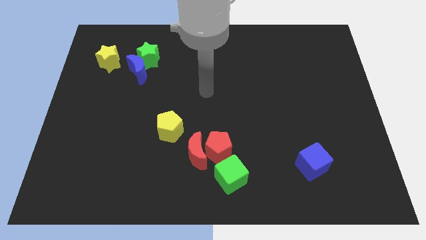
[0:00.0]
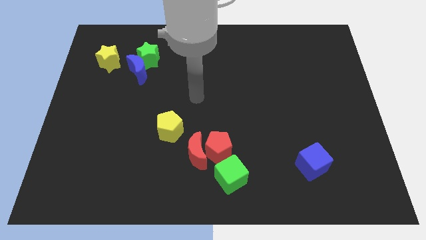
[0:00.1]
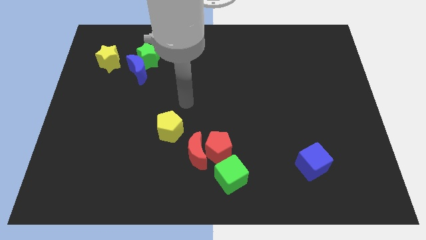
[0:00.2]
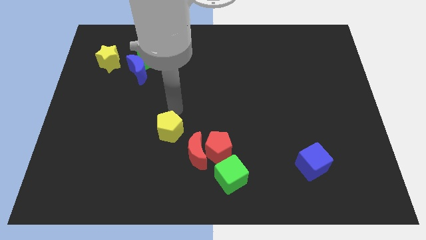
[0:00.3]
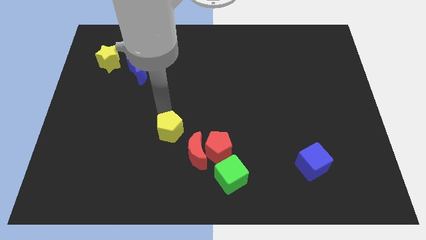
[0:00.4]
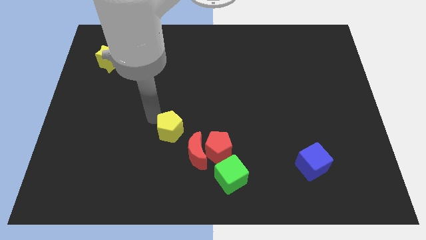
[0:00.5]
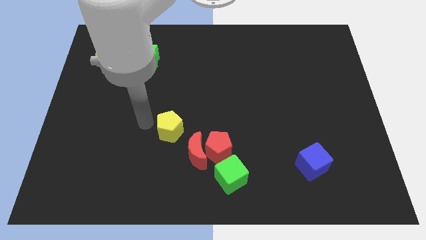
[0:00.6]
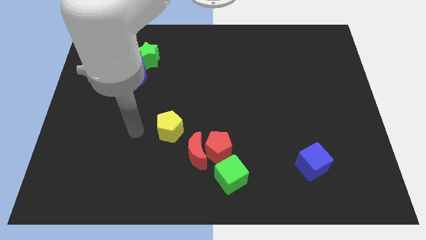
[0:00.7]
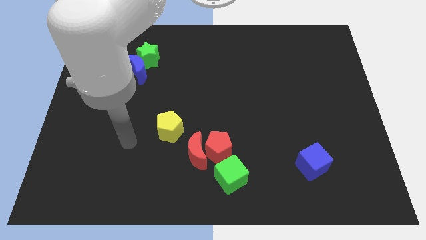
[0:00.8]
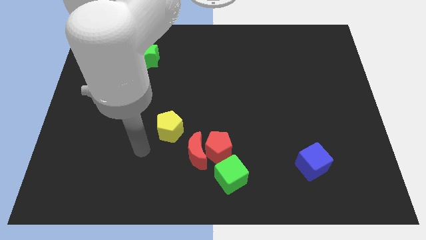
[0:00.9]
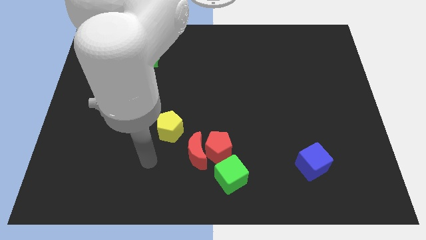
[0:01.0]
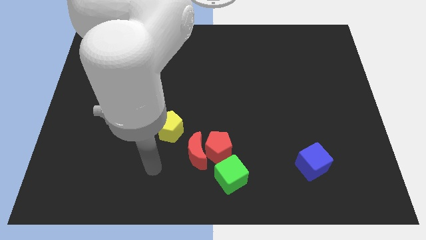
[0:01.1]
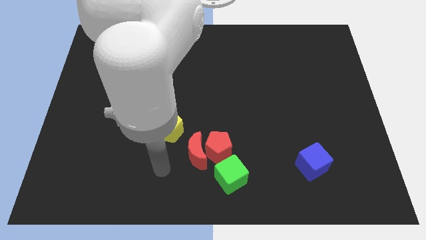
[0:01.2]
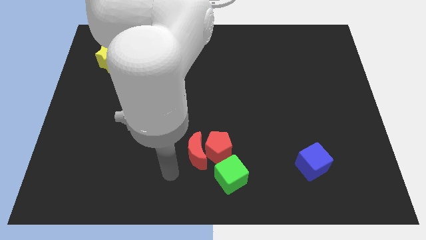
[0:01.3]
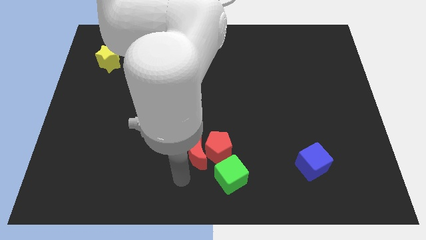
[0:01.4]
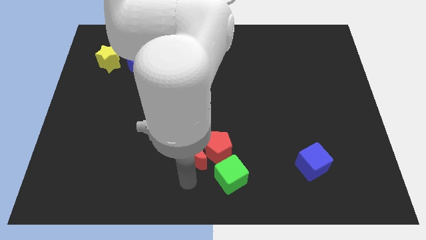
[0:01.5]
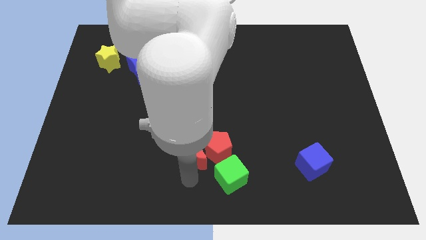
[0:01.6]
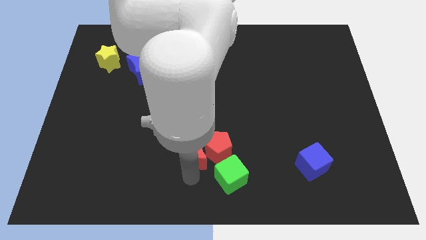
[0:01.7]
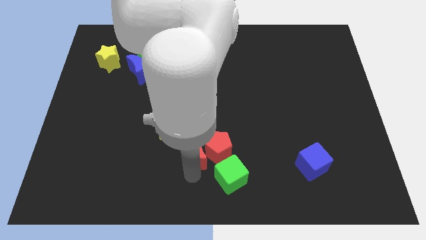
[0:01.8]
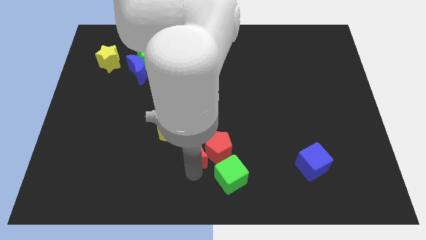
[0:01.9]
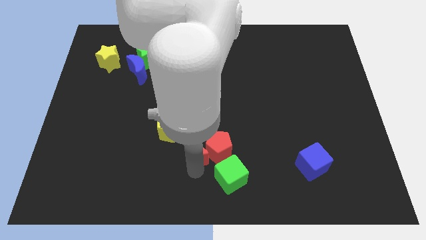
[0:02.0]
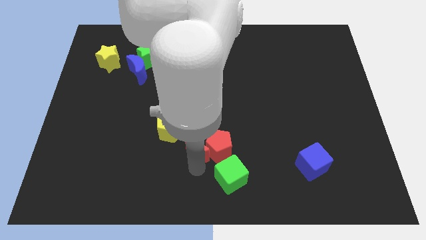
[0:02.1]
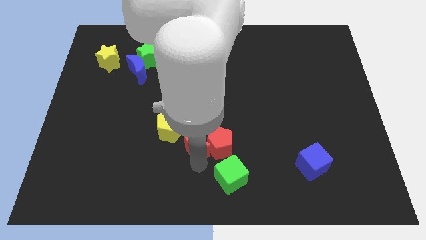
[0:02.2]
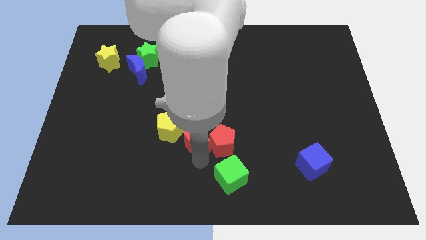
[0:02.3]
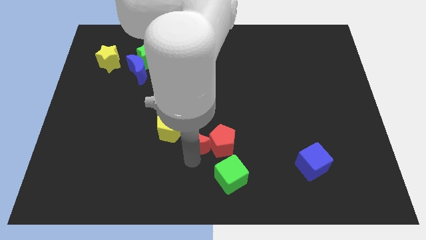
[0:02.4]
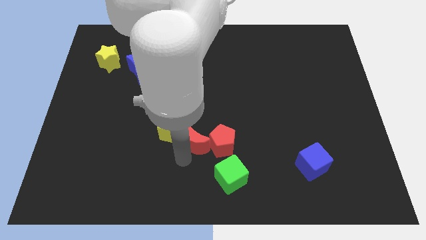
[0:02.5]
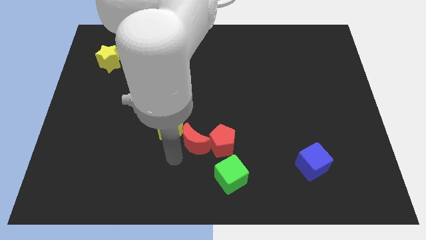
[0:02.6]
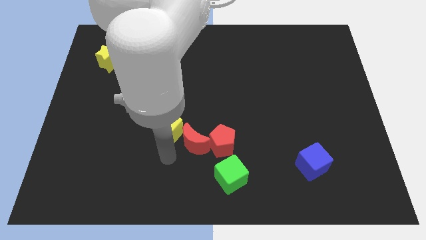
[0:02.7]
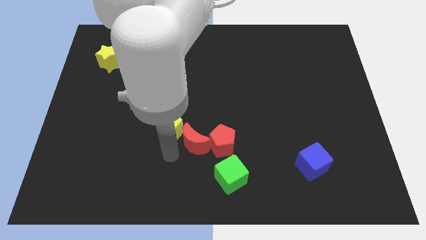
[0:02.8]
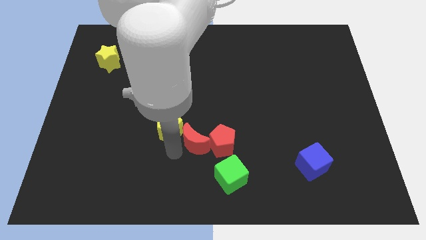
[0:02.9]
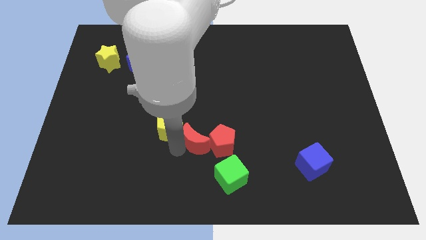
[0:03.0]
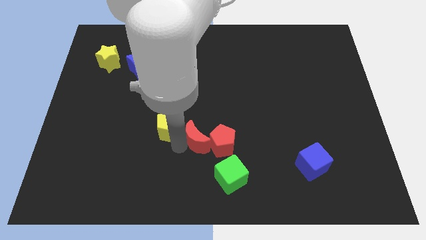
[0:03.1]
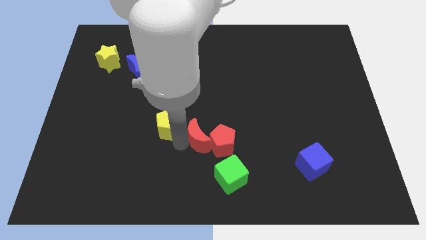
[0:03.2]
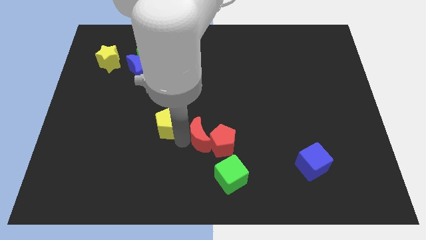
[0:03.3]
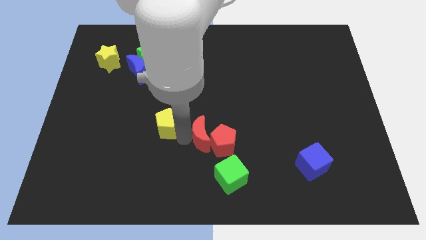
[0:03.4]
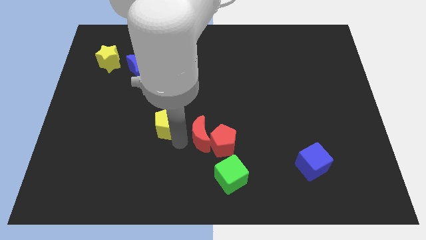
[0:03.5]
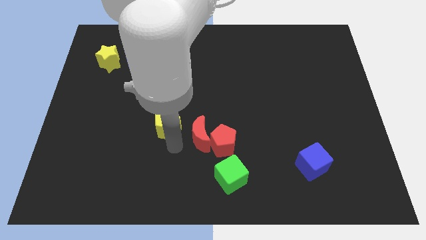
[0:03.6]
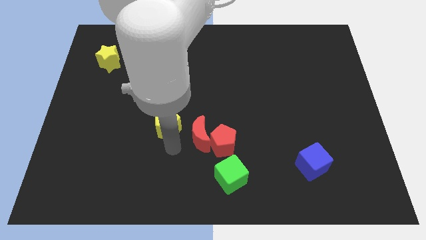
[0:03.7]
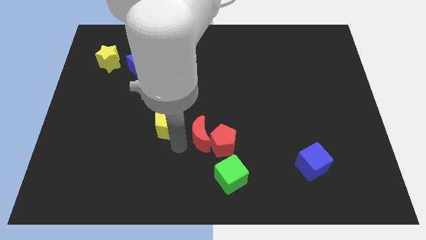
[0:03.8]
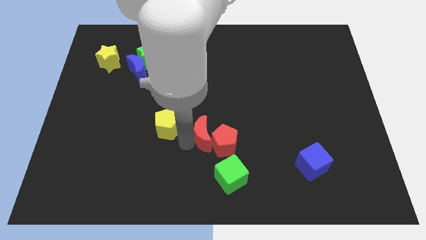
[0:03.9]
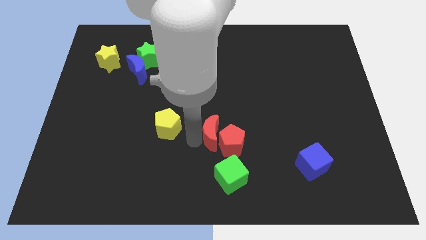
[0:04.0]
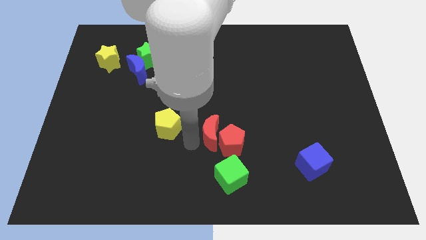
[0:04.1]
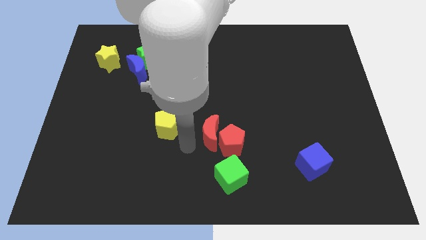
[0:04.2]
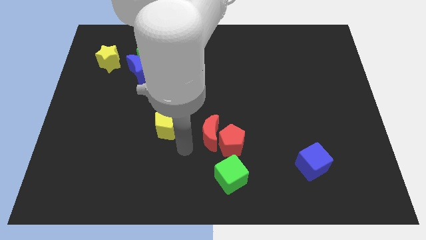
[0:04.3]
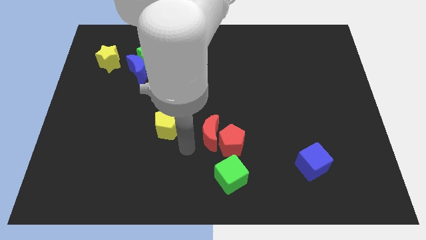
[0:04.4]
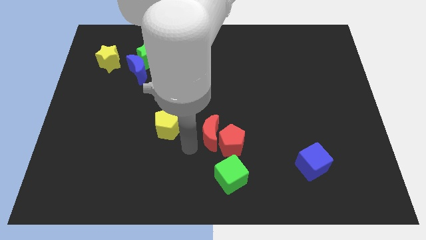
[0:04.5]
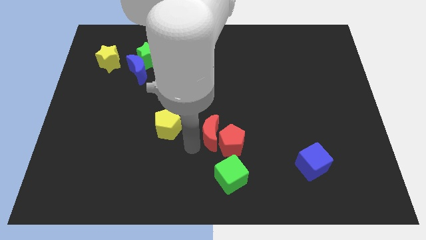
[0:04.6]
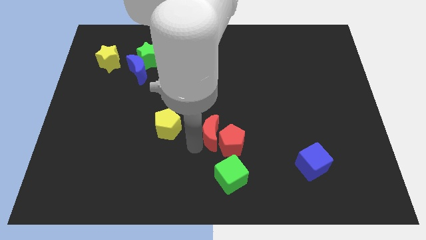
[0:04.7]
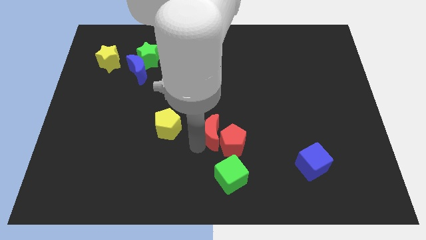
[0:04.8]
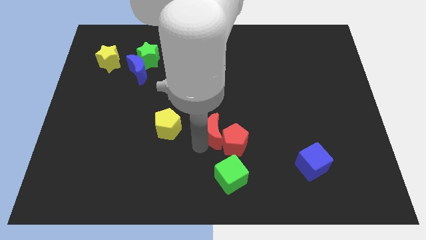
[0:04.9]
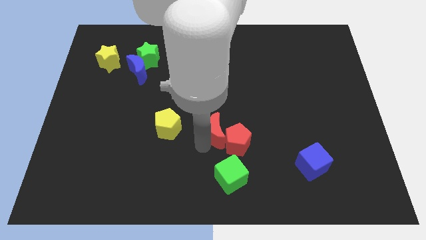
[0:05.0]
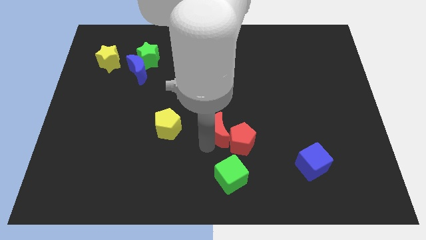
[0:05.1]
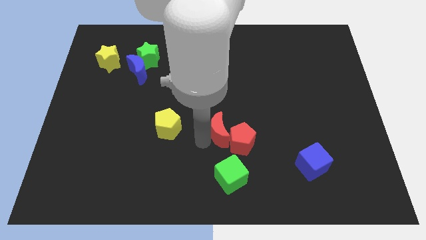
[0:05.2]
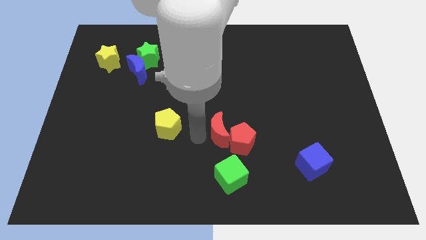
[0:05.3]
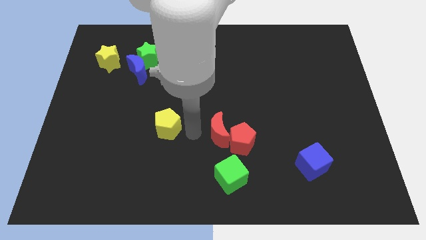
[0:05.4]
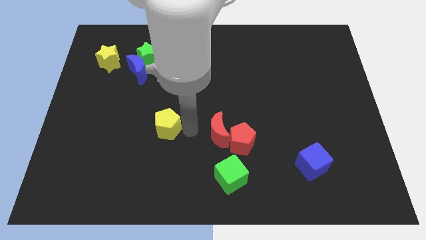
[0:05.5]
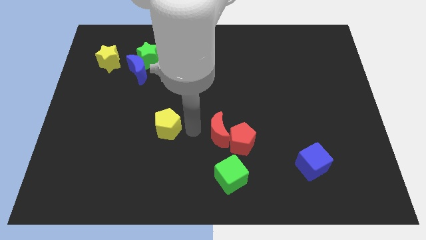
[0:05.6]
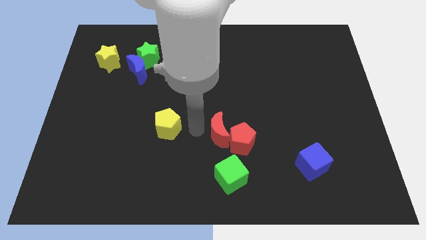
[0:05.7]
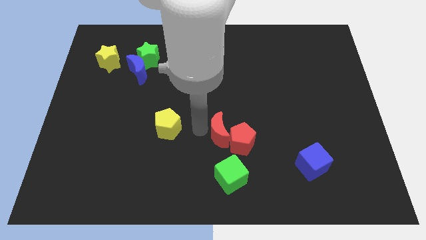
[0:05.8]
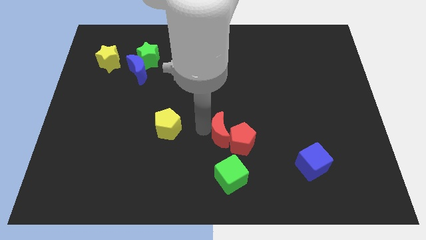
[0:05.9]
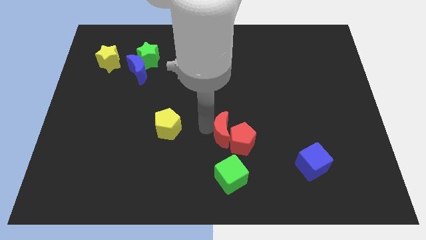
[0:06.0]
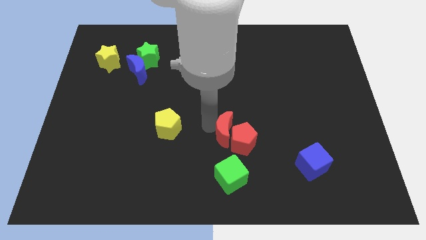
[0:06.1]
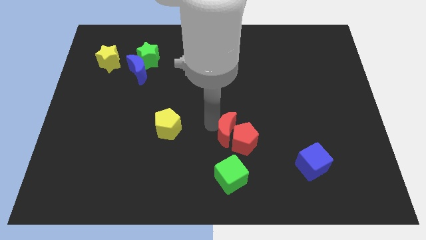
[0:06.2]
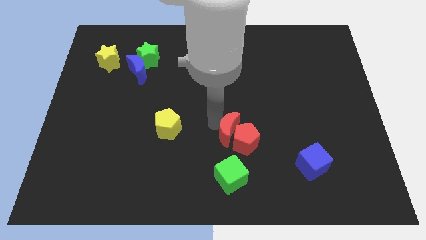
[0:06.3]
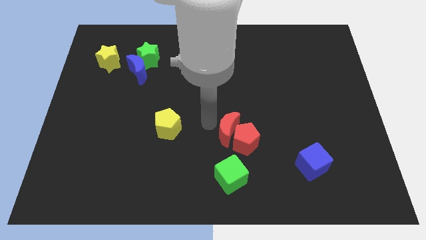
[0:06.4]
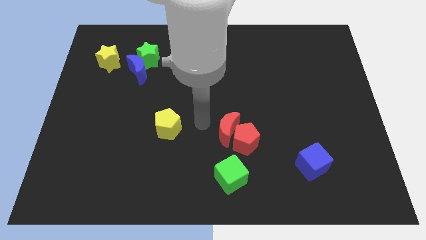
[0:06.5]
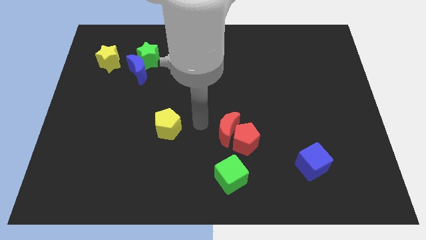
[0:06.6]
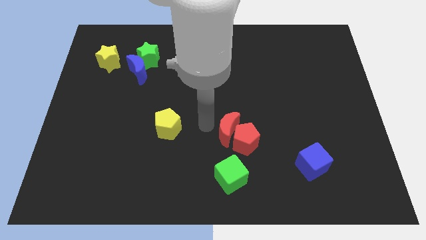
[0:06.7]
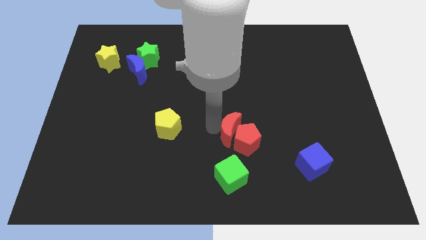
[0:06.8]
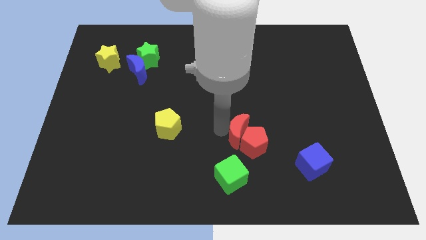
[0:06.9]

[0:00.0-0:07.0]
move the red moon right slightly

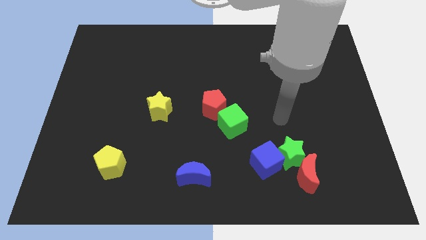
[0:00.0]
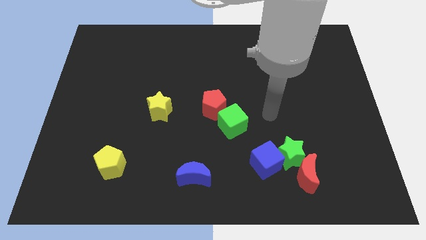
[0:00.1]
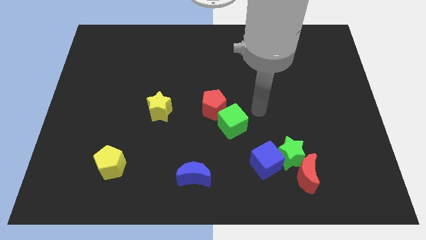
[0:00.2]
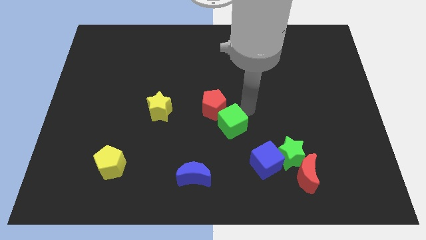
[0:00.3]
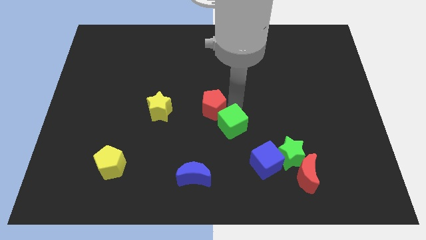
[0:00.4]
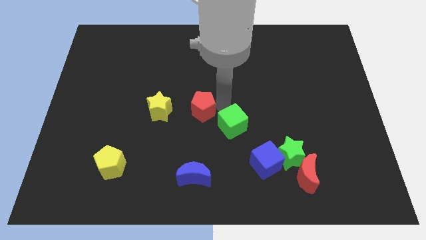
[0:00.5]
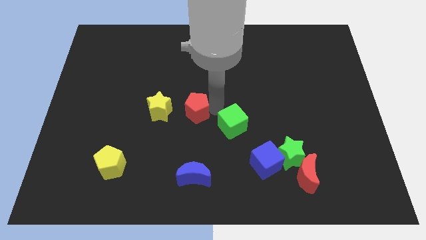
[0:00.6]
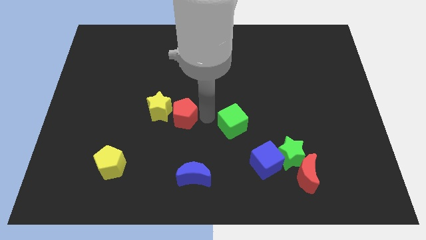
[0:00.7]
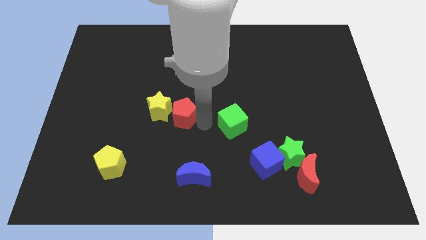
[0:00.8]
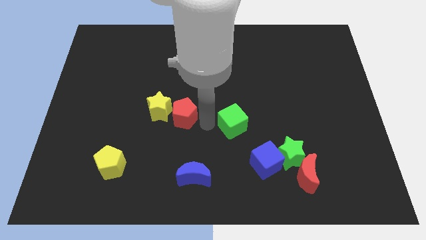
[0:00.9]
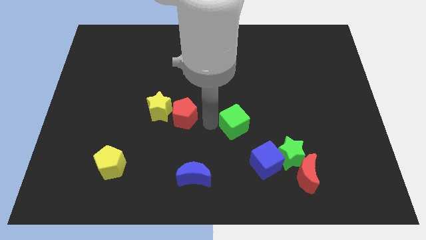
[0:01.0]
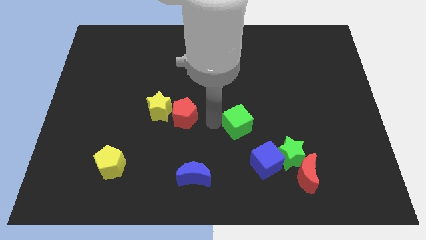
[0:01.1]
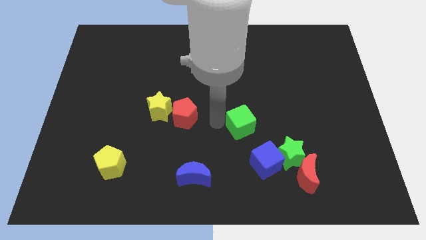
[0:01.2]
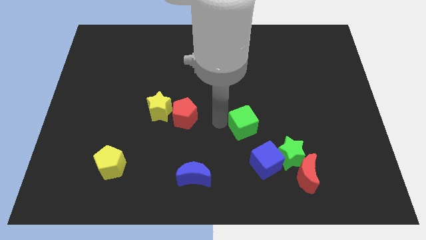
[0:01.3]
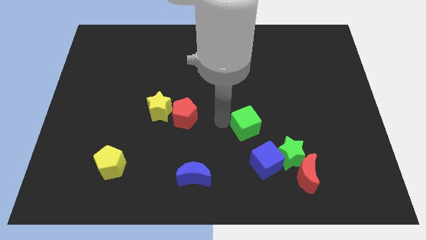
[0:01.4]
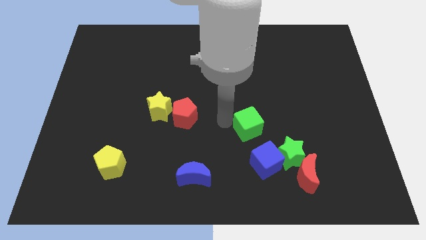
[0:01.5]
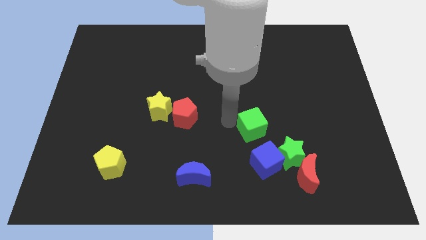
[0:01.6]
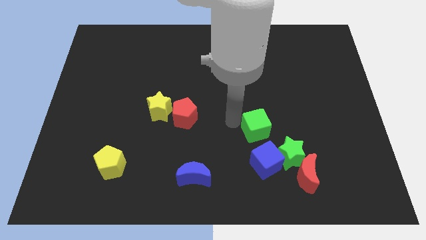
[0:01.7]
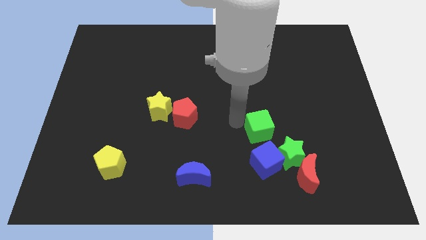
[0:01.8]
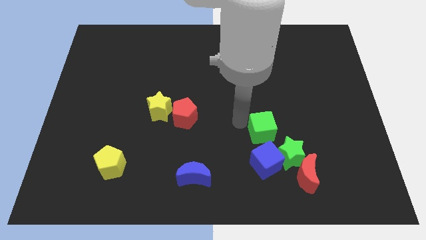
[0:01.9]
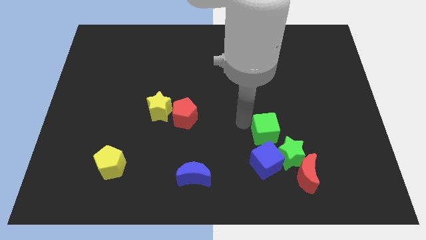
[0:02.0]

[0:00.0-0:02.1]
slide the green cube right a little bit
